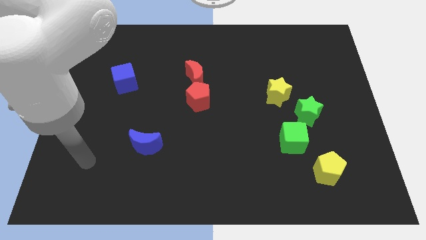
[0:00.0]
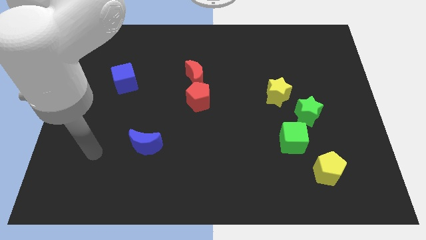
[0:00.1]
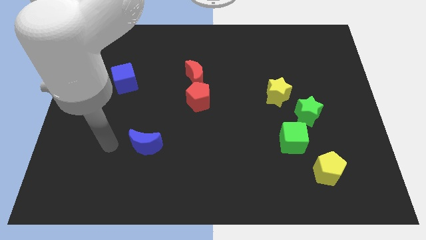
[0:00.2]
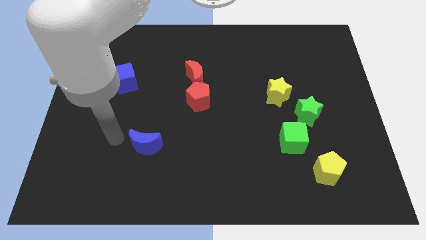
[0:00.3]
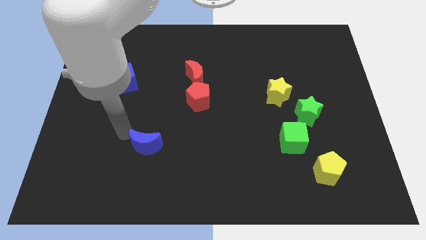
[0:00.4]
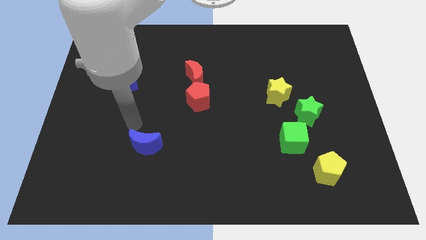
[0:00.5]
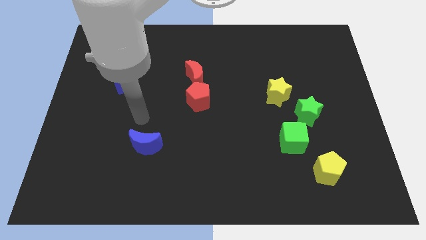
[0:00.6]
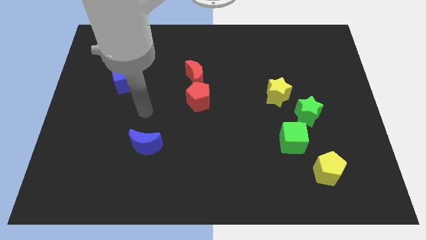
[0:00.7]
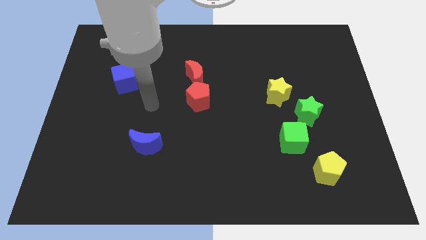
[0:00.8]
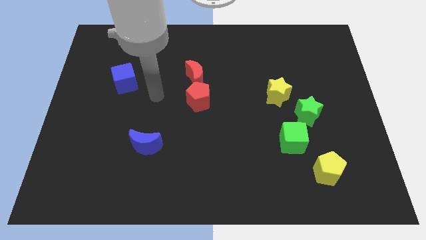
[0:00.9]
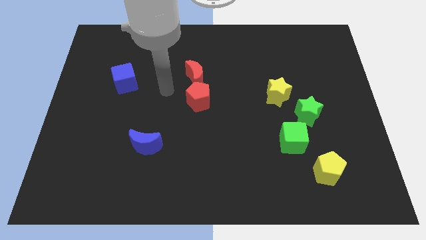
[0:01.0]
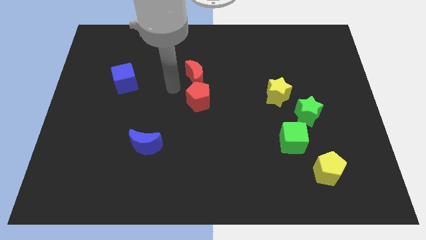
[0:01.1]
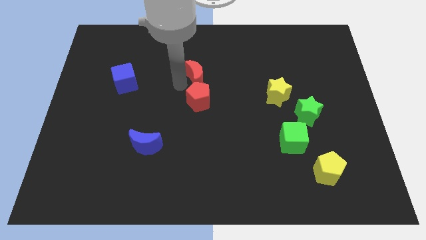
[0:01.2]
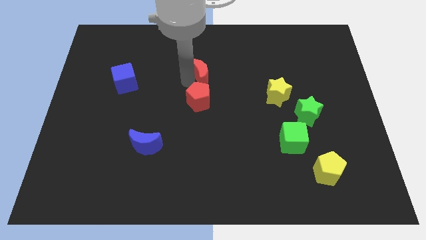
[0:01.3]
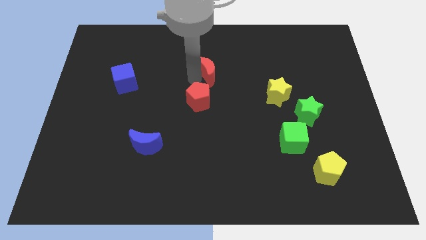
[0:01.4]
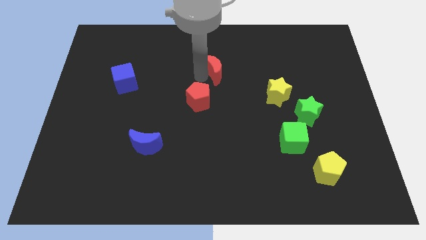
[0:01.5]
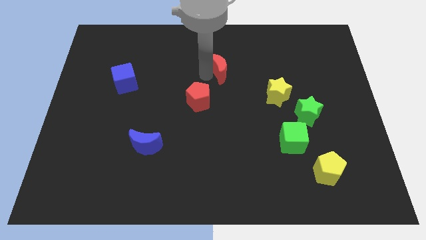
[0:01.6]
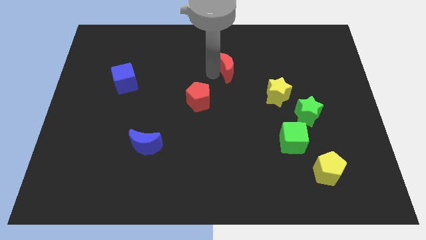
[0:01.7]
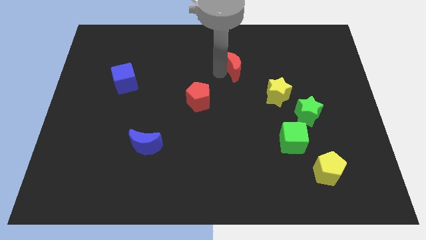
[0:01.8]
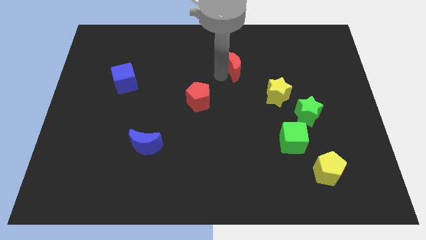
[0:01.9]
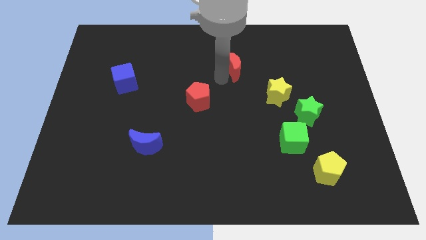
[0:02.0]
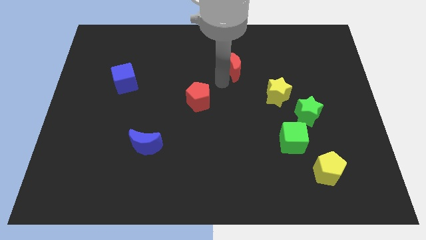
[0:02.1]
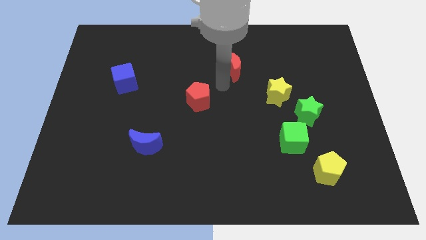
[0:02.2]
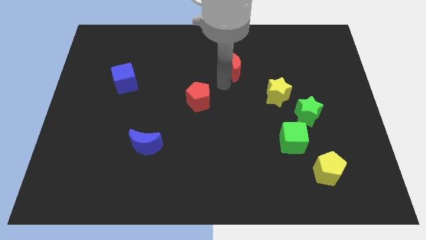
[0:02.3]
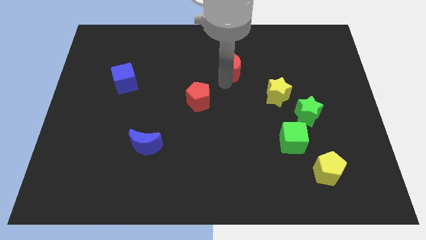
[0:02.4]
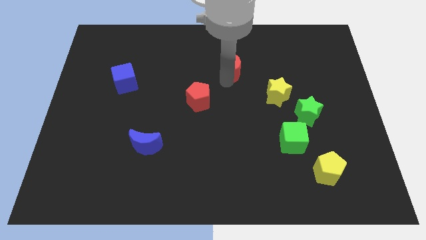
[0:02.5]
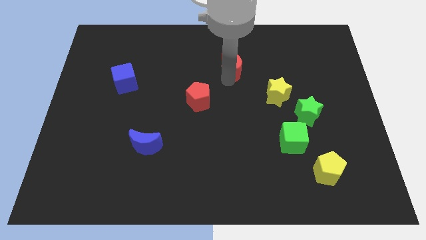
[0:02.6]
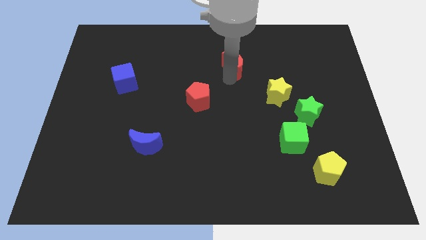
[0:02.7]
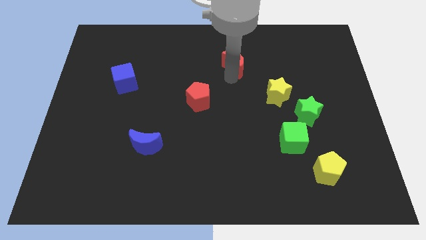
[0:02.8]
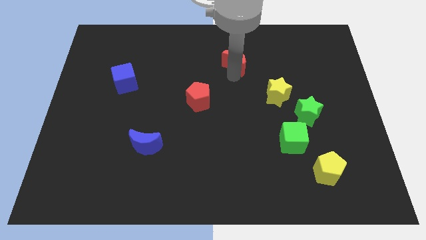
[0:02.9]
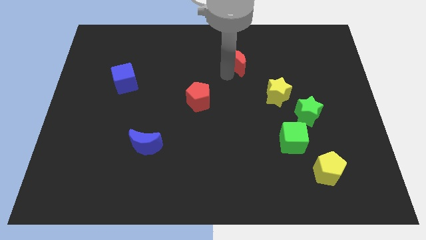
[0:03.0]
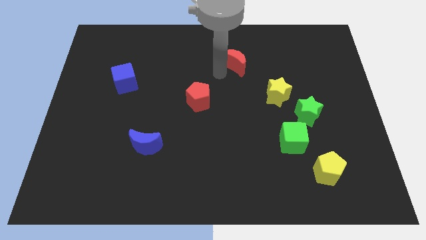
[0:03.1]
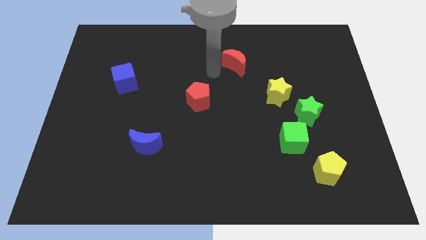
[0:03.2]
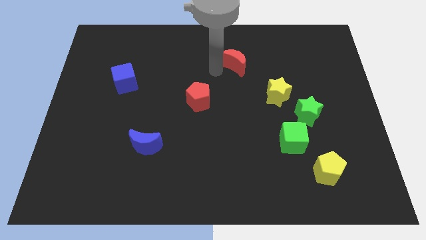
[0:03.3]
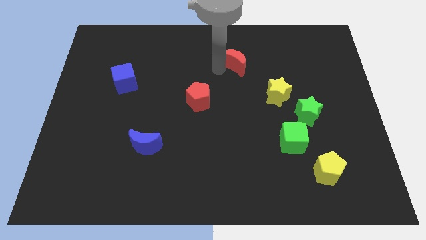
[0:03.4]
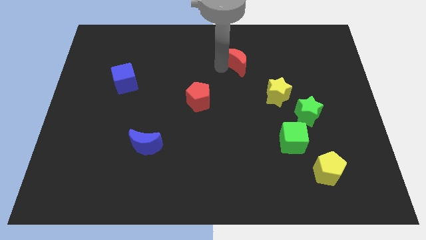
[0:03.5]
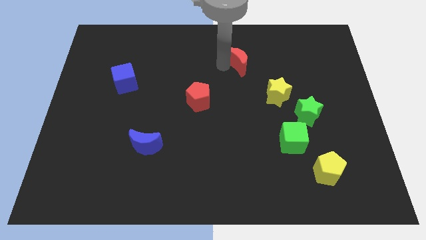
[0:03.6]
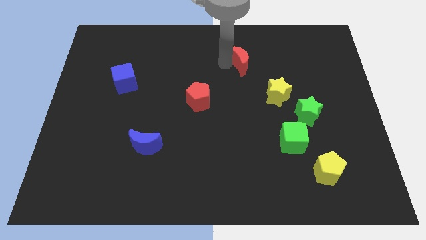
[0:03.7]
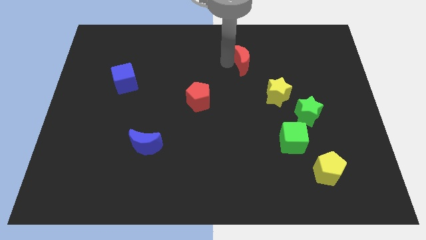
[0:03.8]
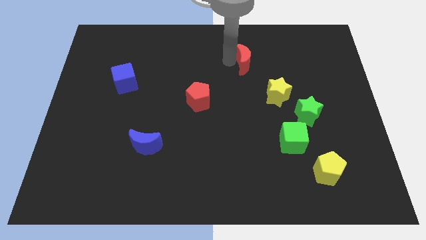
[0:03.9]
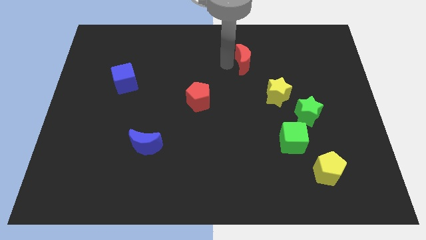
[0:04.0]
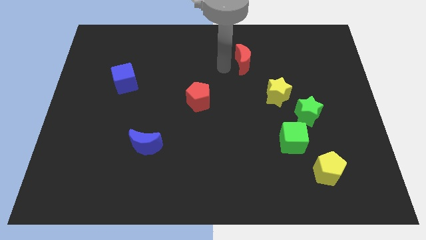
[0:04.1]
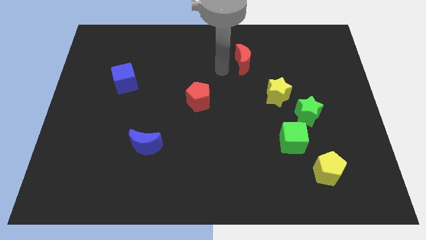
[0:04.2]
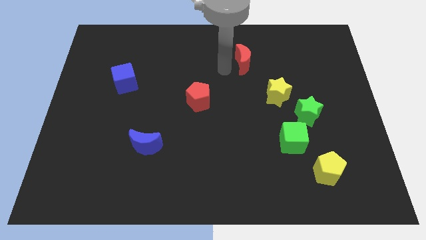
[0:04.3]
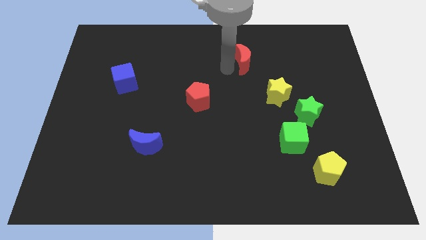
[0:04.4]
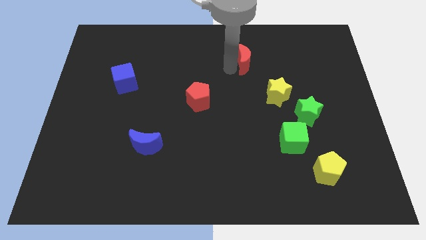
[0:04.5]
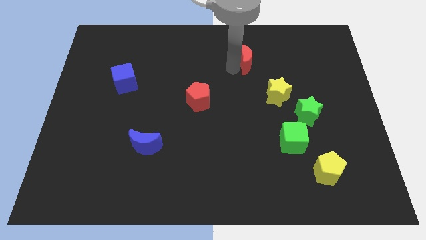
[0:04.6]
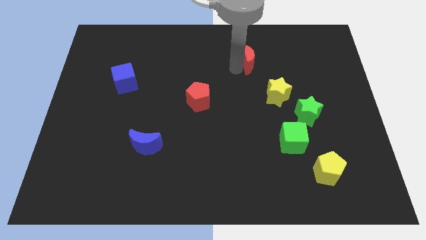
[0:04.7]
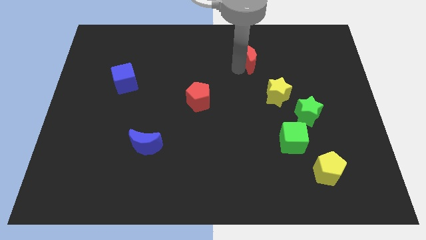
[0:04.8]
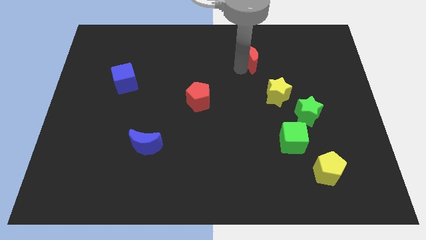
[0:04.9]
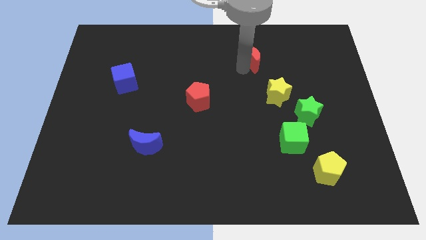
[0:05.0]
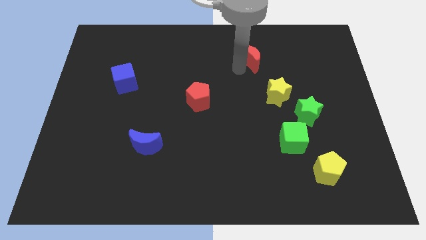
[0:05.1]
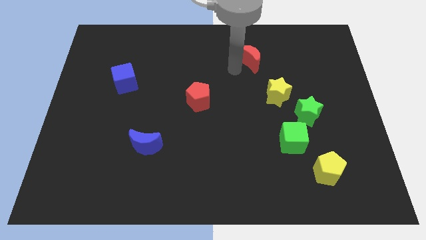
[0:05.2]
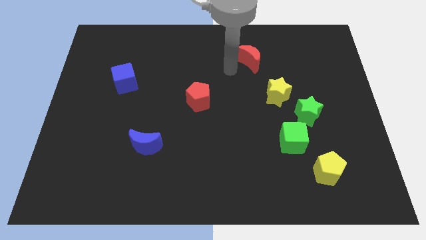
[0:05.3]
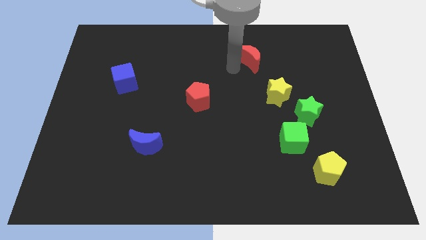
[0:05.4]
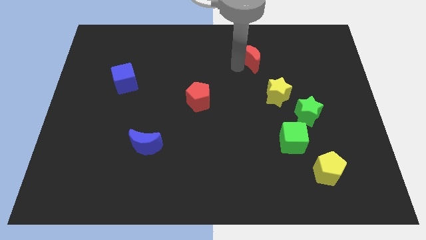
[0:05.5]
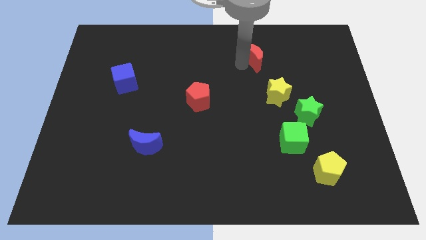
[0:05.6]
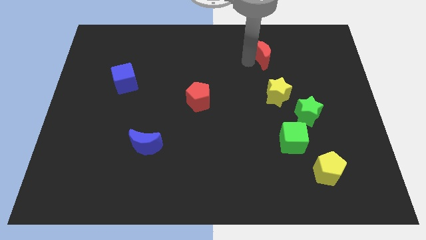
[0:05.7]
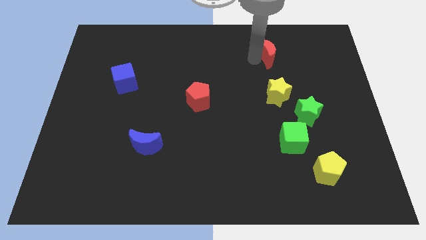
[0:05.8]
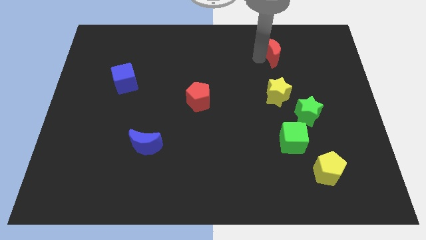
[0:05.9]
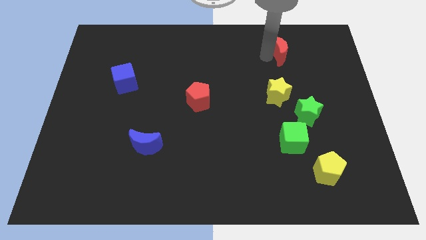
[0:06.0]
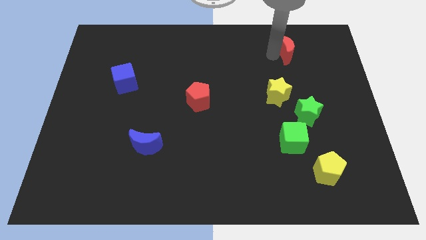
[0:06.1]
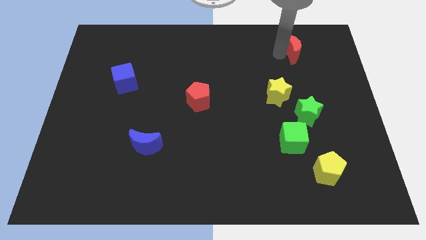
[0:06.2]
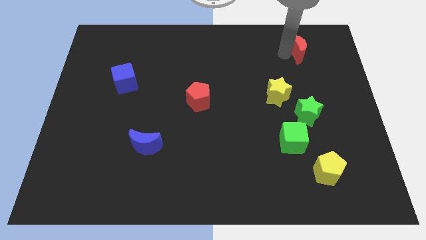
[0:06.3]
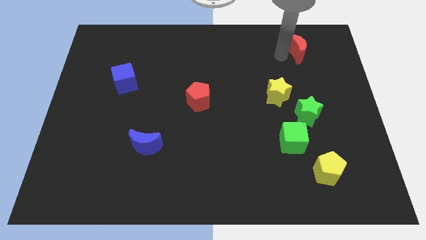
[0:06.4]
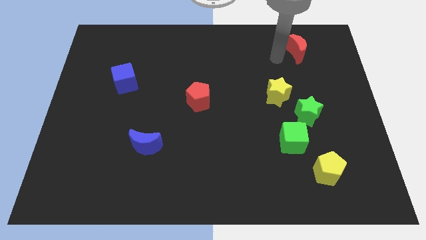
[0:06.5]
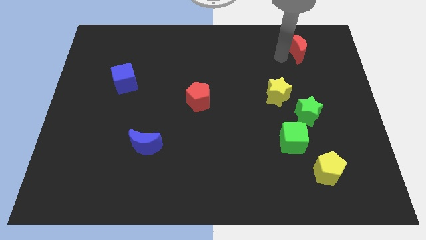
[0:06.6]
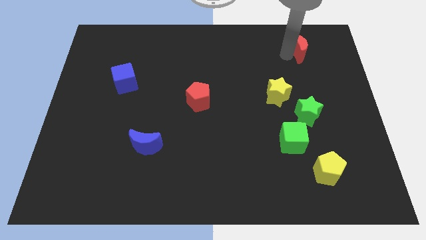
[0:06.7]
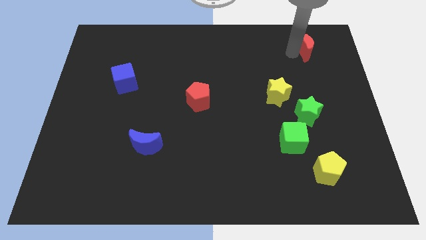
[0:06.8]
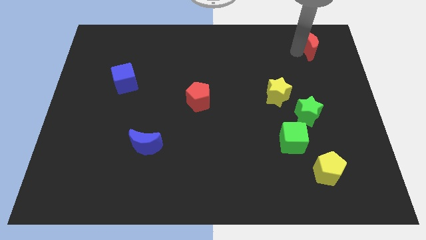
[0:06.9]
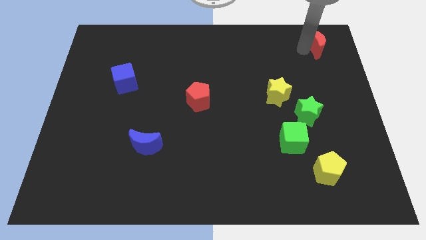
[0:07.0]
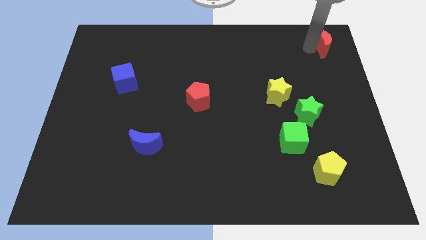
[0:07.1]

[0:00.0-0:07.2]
move the red moon to the top right

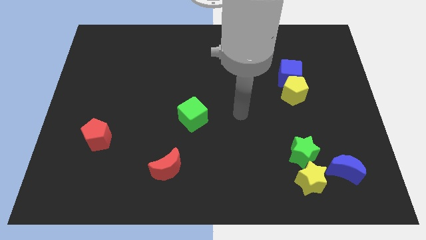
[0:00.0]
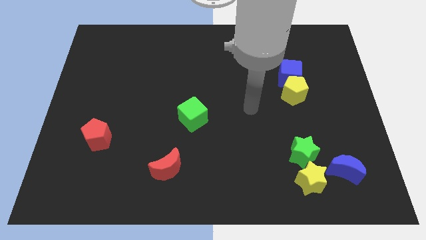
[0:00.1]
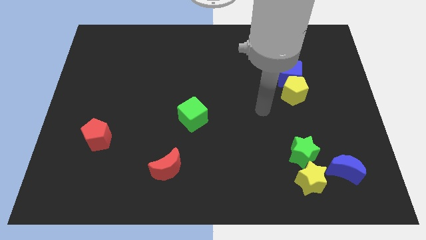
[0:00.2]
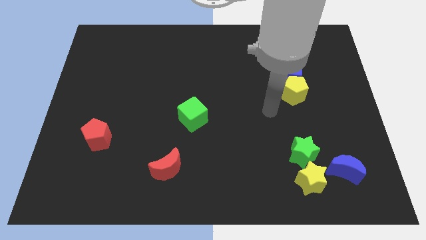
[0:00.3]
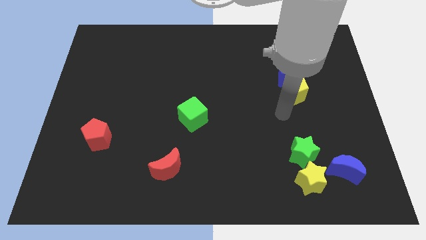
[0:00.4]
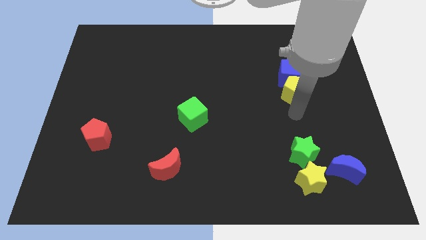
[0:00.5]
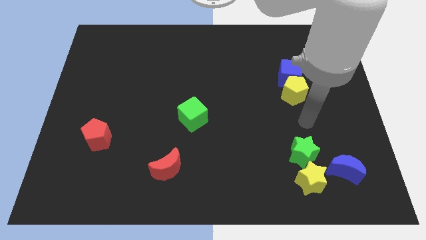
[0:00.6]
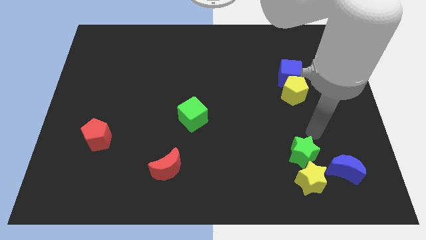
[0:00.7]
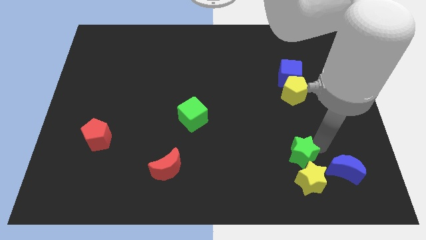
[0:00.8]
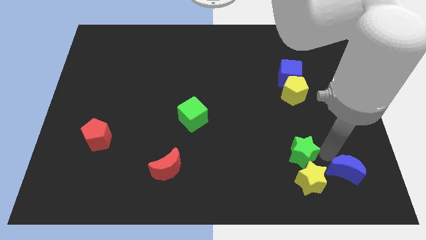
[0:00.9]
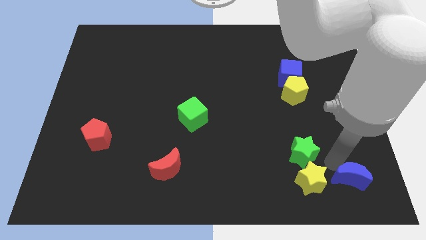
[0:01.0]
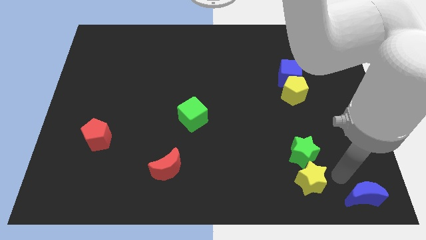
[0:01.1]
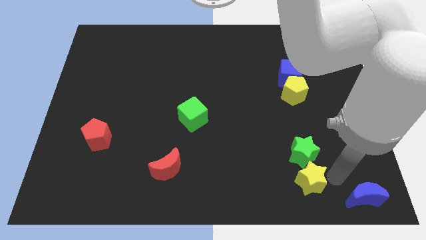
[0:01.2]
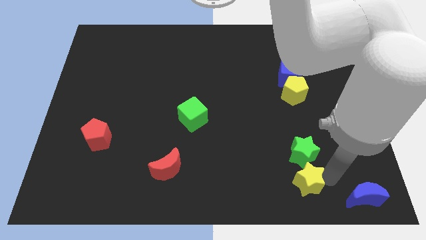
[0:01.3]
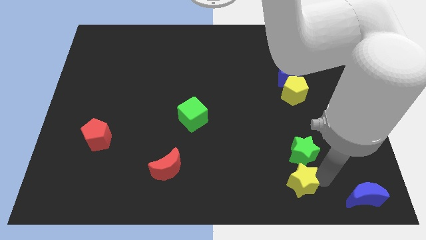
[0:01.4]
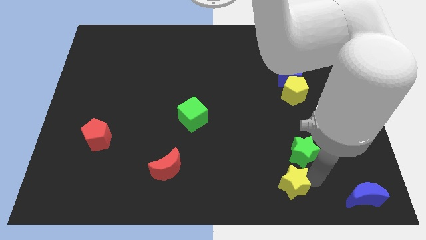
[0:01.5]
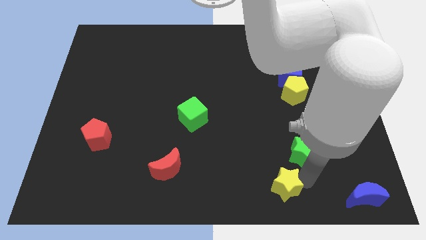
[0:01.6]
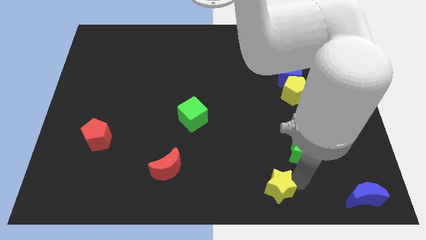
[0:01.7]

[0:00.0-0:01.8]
push the yellow star to the bottom
